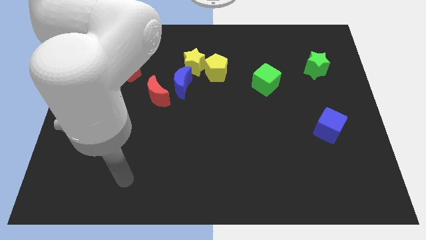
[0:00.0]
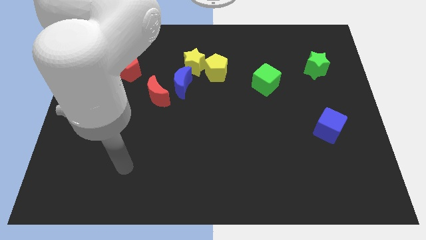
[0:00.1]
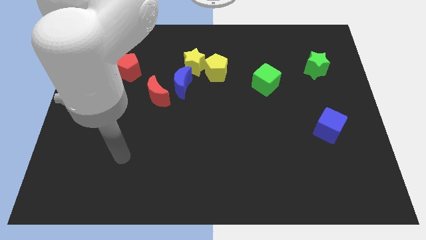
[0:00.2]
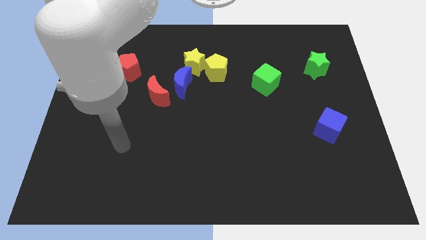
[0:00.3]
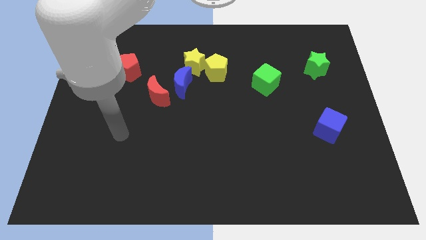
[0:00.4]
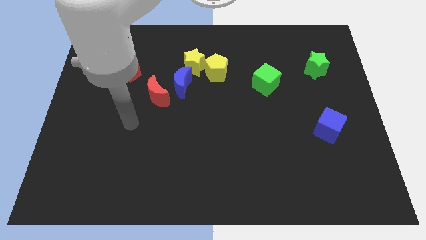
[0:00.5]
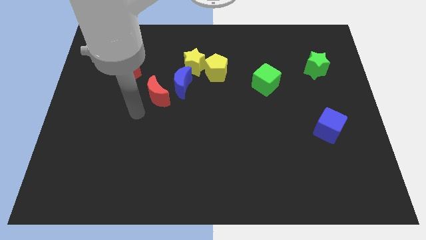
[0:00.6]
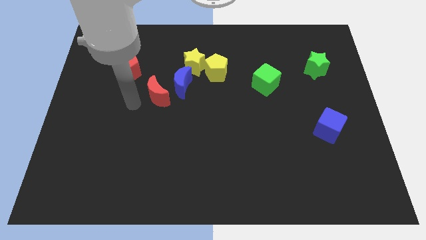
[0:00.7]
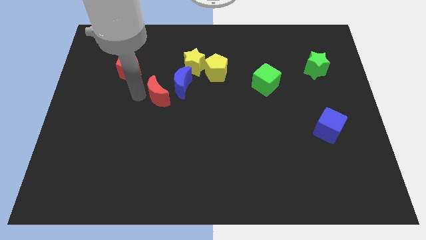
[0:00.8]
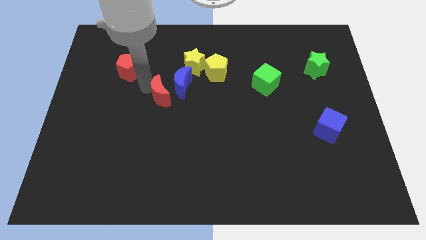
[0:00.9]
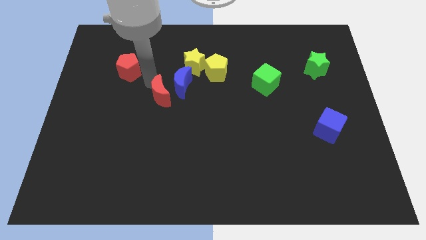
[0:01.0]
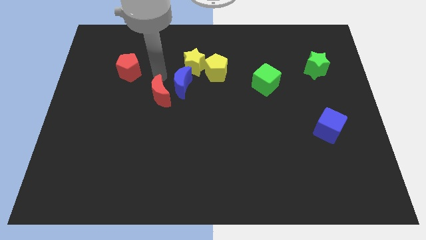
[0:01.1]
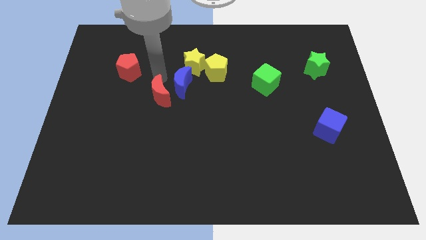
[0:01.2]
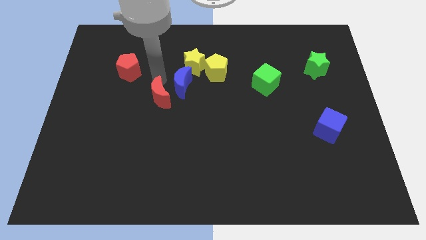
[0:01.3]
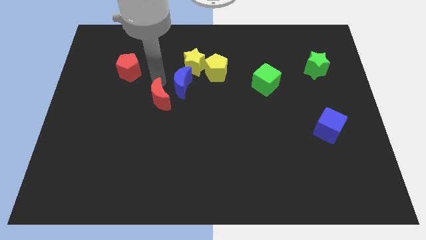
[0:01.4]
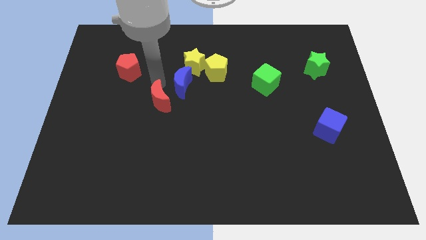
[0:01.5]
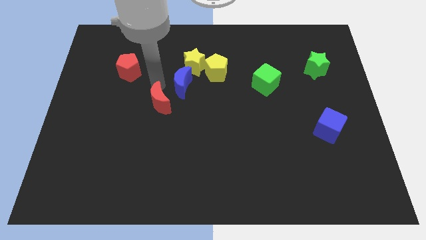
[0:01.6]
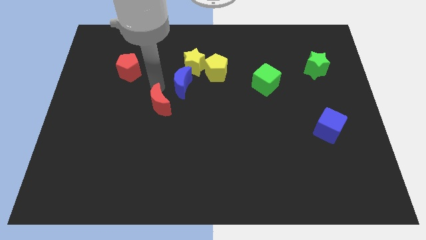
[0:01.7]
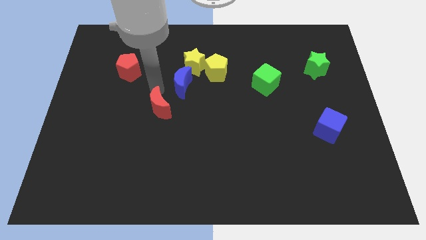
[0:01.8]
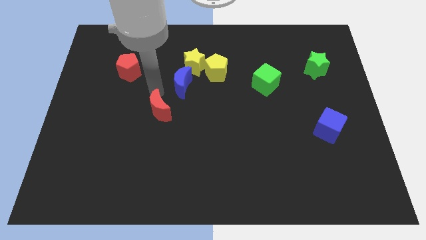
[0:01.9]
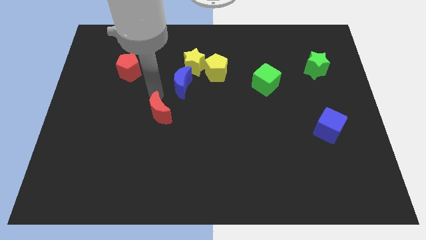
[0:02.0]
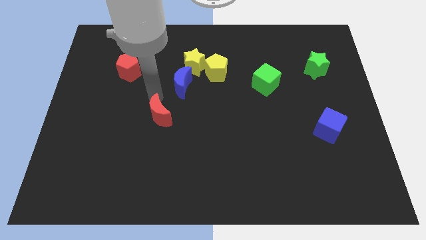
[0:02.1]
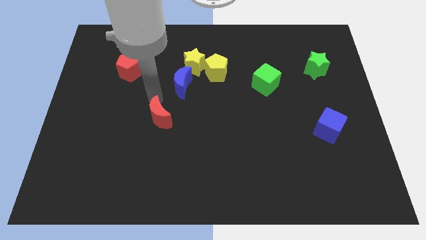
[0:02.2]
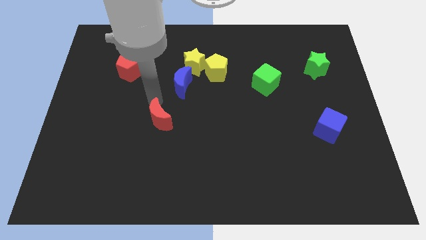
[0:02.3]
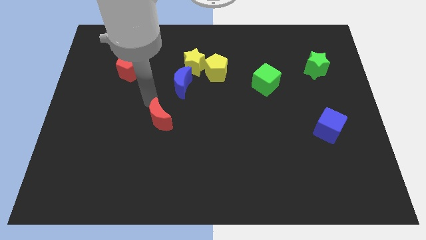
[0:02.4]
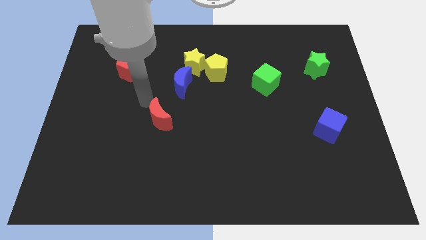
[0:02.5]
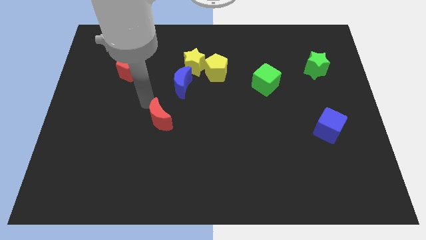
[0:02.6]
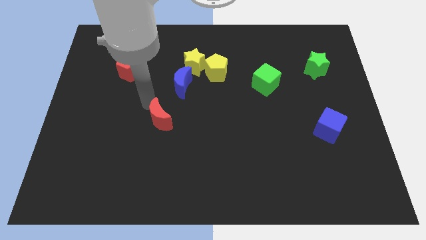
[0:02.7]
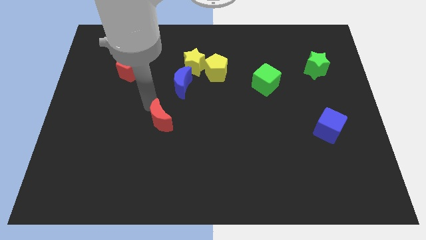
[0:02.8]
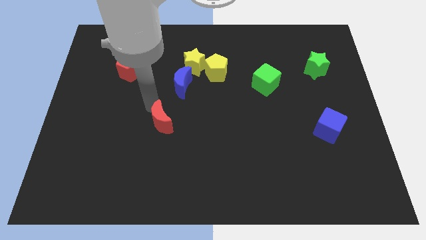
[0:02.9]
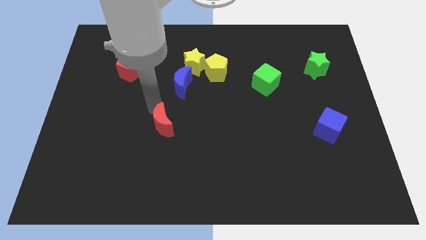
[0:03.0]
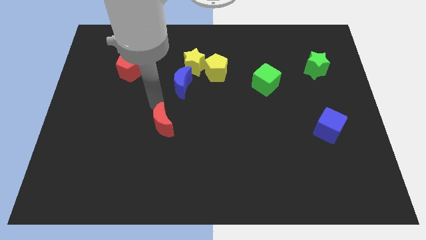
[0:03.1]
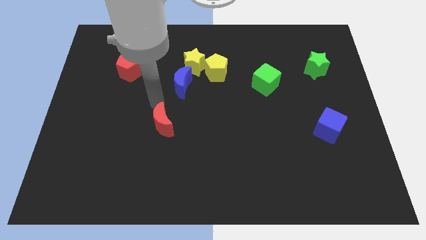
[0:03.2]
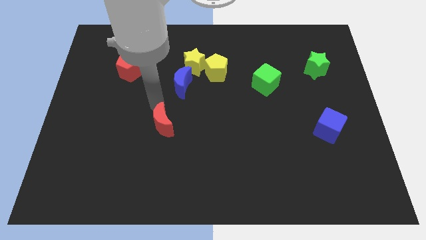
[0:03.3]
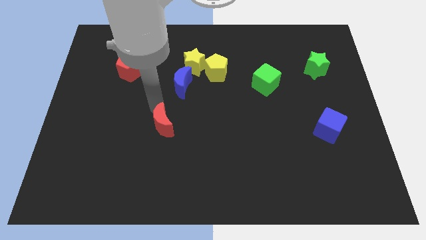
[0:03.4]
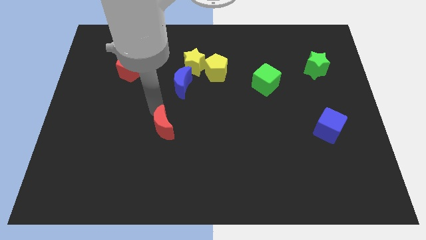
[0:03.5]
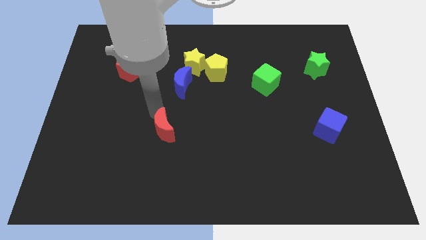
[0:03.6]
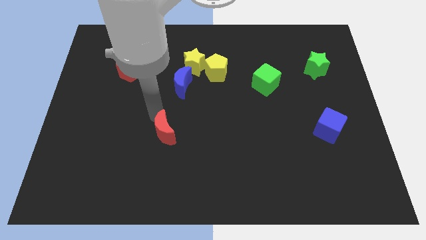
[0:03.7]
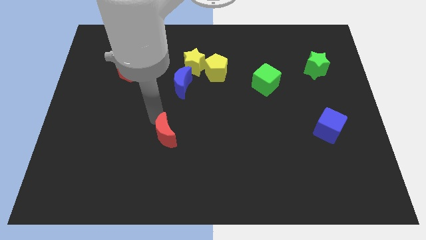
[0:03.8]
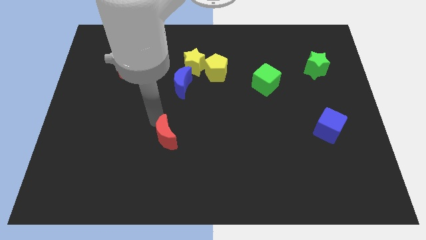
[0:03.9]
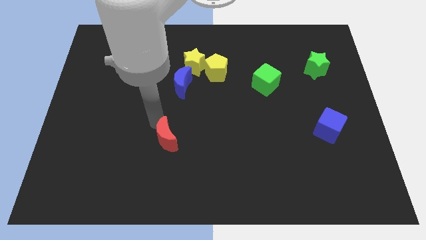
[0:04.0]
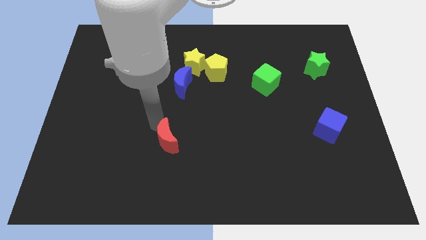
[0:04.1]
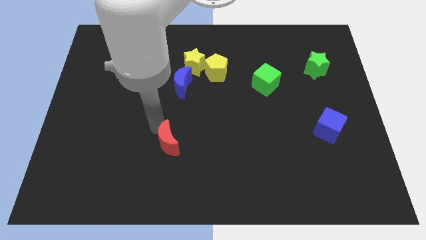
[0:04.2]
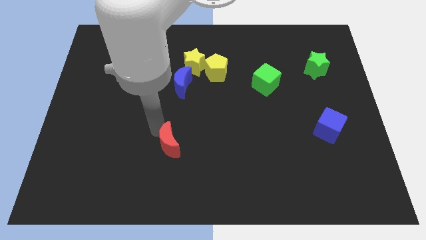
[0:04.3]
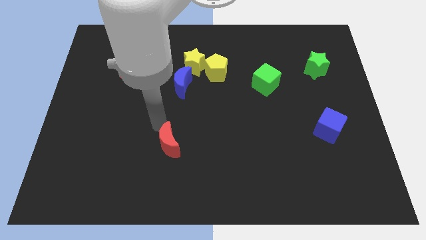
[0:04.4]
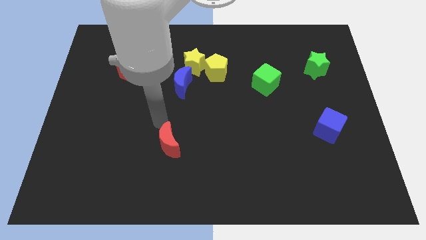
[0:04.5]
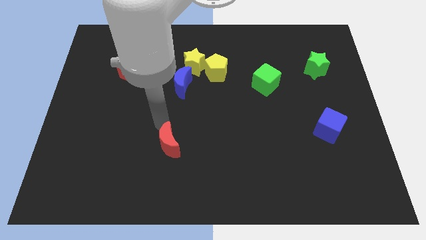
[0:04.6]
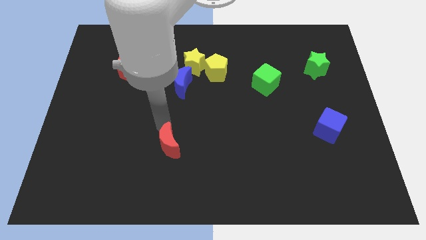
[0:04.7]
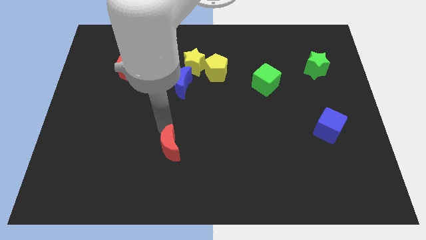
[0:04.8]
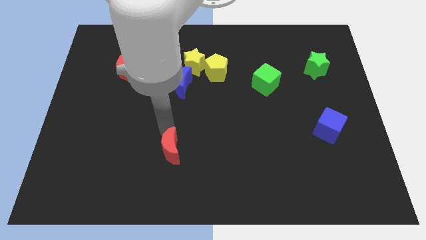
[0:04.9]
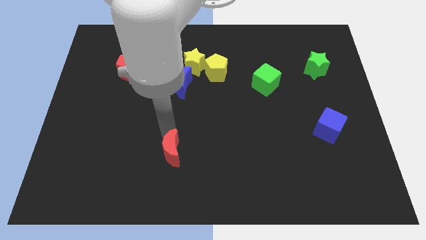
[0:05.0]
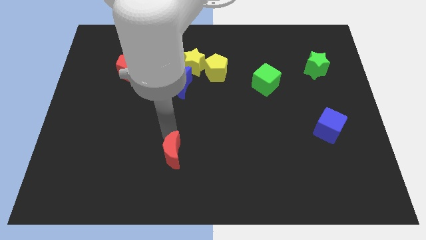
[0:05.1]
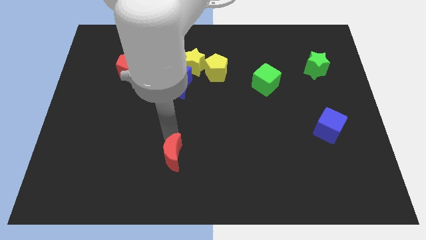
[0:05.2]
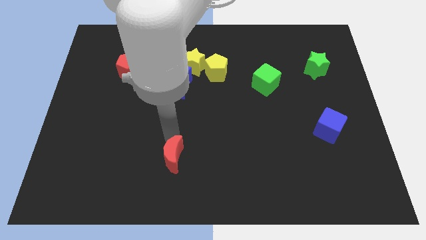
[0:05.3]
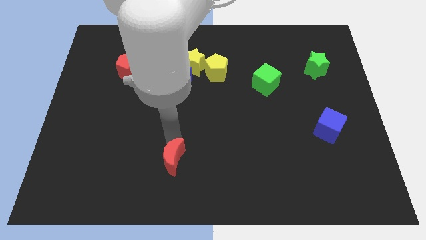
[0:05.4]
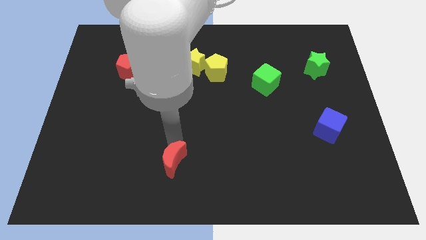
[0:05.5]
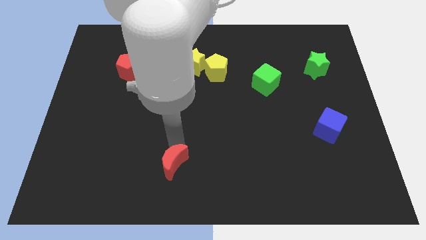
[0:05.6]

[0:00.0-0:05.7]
slide the red moon to the bottom
